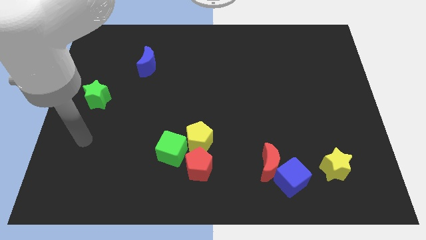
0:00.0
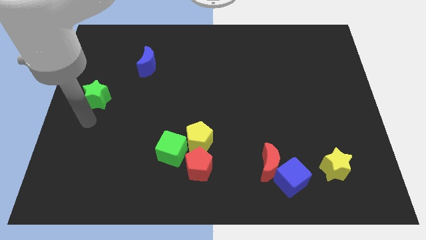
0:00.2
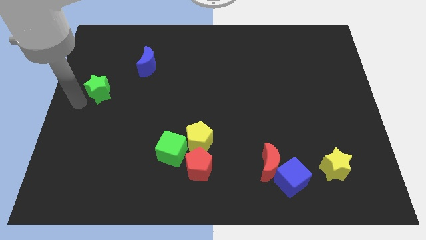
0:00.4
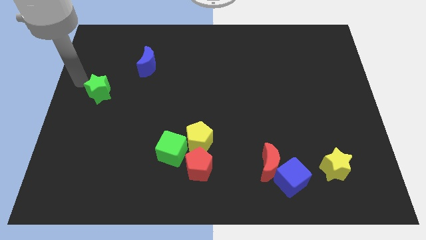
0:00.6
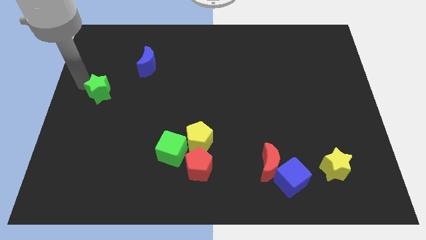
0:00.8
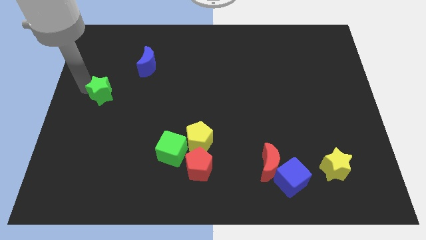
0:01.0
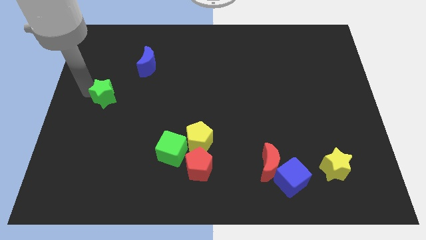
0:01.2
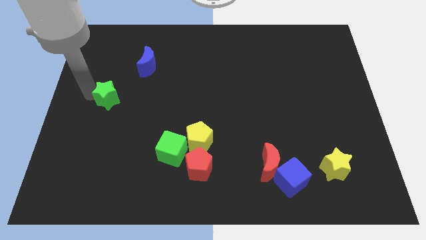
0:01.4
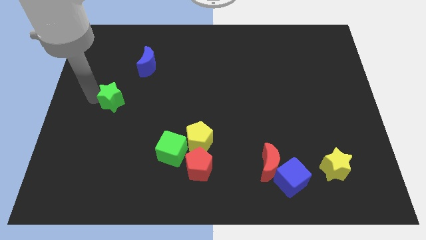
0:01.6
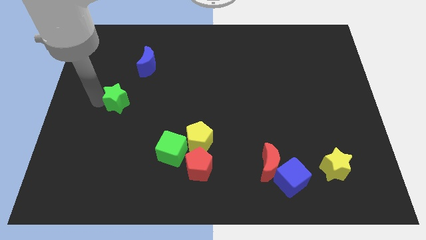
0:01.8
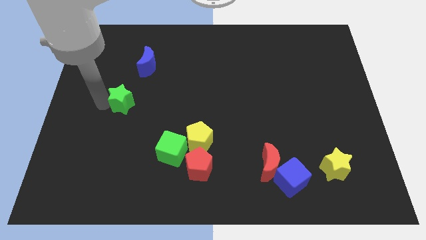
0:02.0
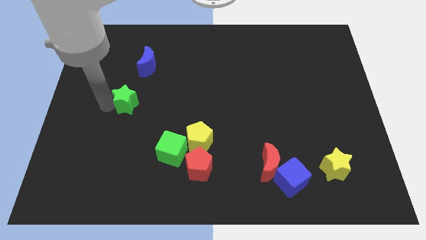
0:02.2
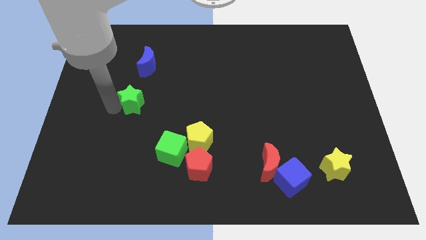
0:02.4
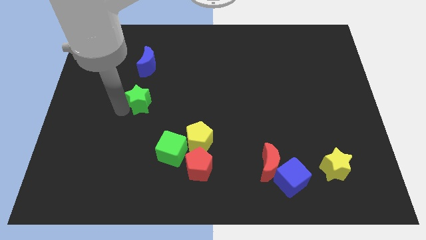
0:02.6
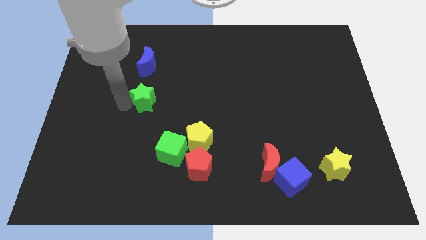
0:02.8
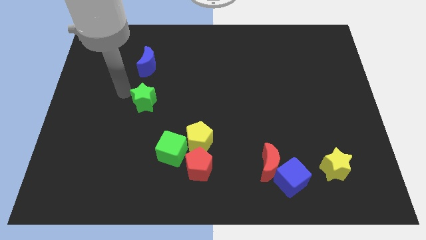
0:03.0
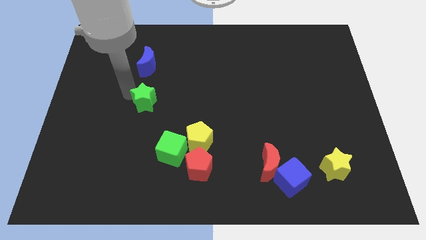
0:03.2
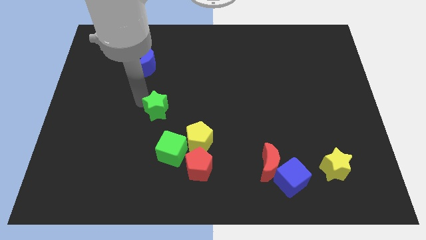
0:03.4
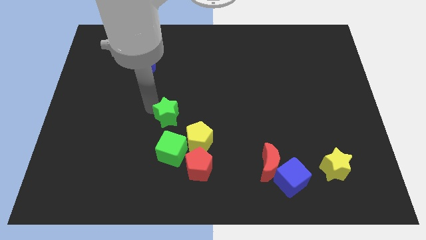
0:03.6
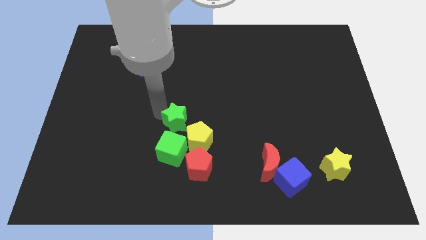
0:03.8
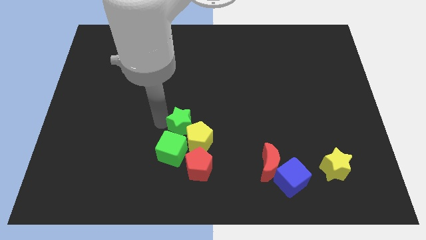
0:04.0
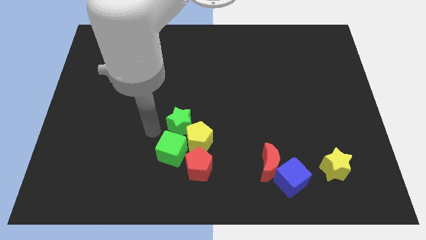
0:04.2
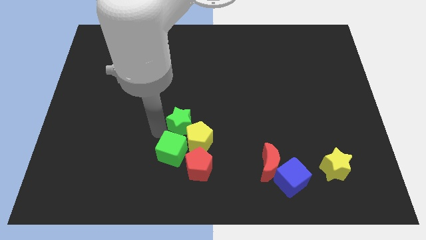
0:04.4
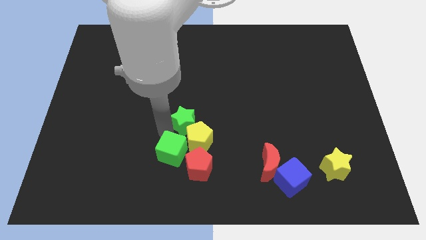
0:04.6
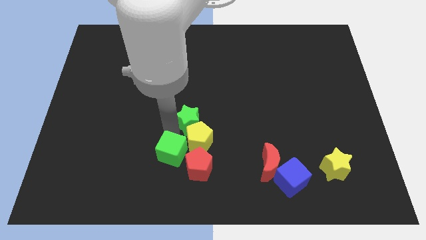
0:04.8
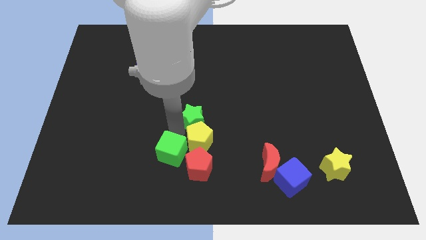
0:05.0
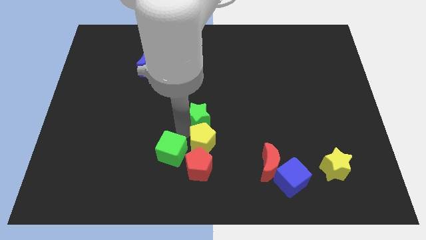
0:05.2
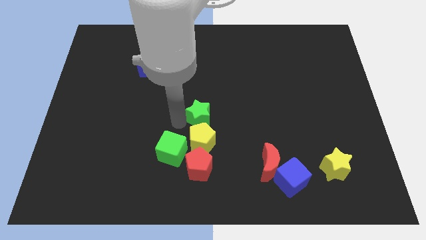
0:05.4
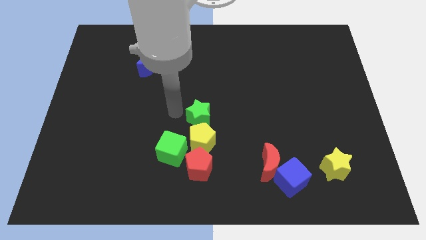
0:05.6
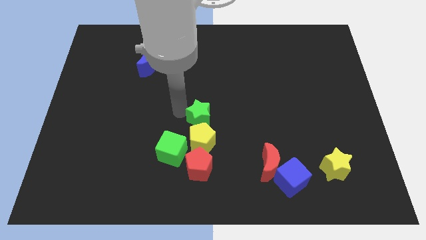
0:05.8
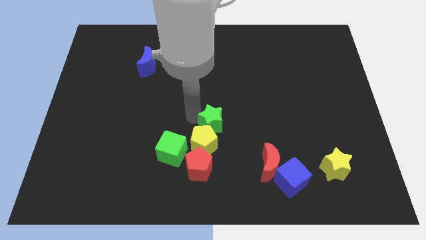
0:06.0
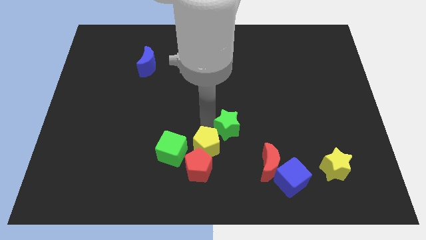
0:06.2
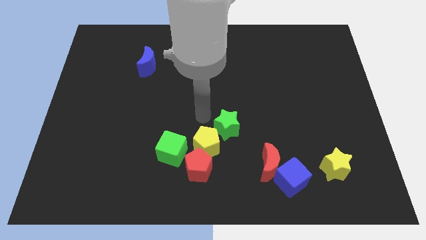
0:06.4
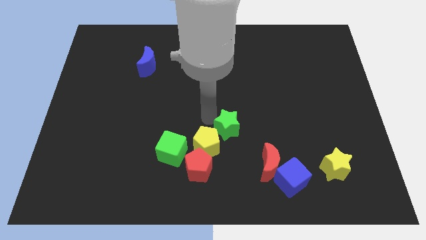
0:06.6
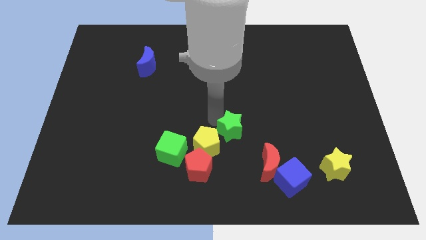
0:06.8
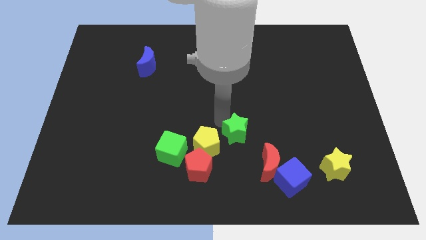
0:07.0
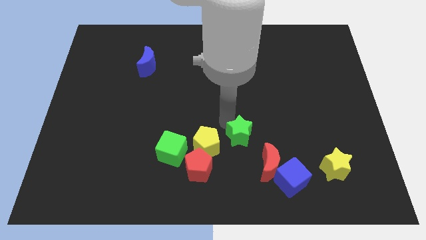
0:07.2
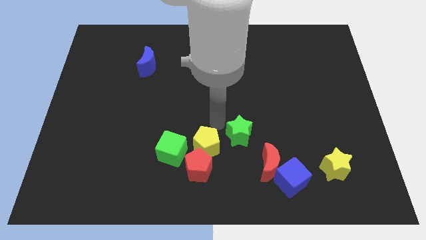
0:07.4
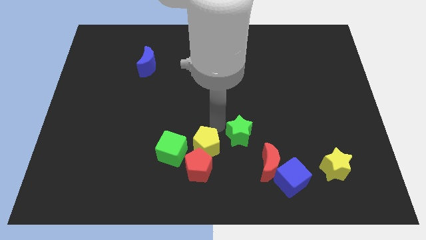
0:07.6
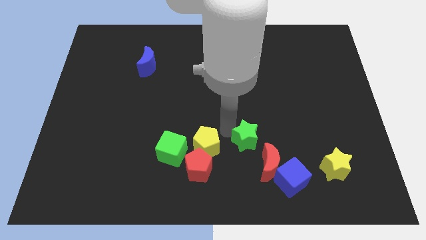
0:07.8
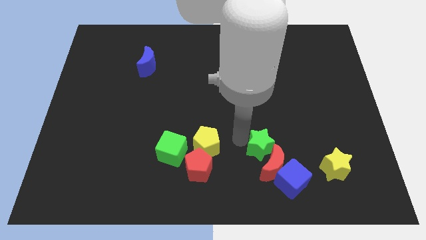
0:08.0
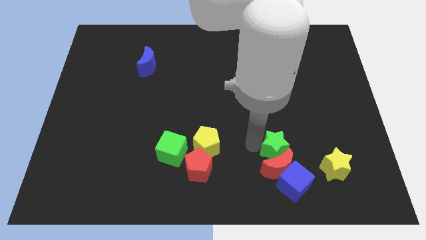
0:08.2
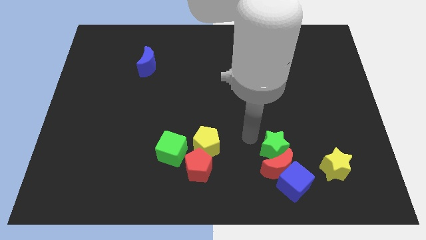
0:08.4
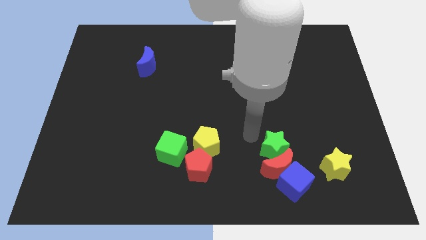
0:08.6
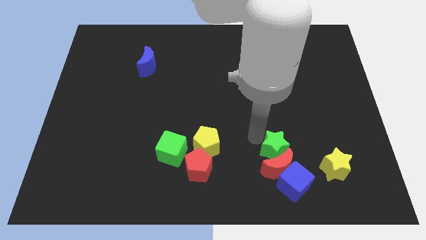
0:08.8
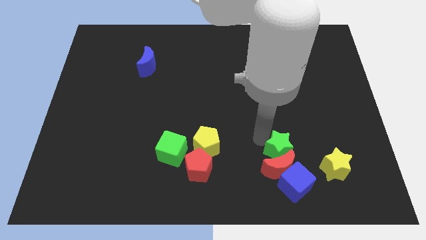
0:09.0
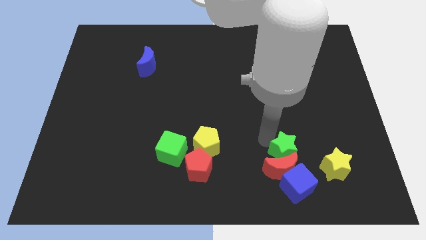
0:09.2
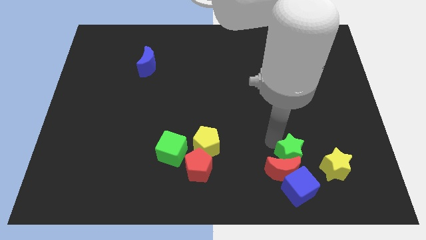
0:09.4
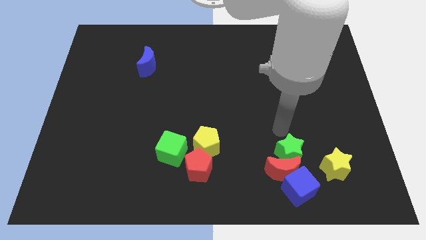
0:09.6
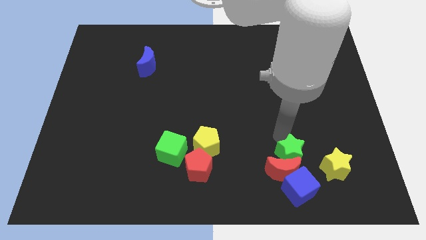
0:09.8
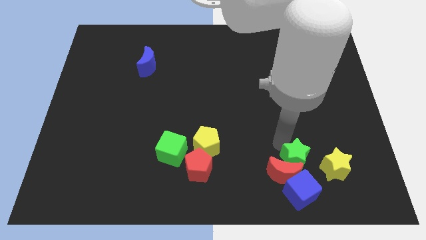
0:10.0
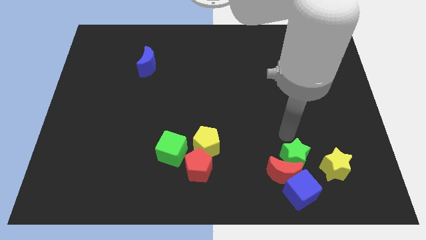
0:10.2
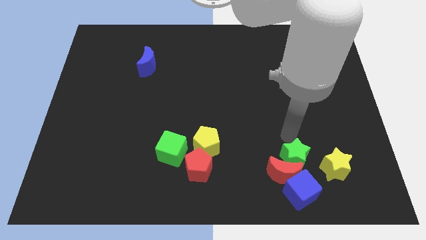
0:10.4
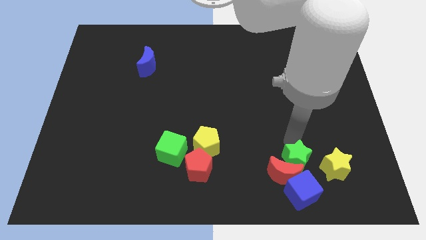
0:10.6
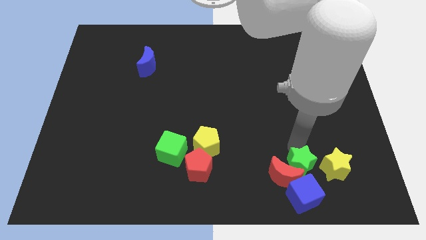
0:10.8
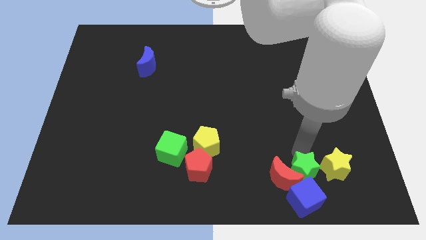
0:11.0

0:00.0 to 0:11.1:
slide the green star next to the blue cube

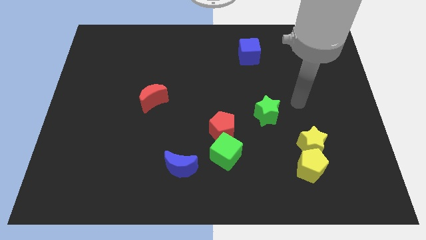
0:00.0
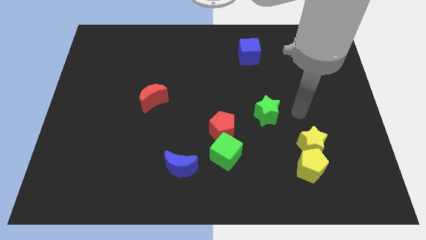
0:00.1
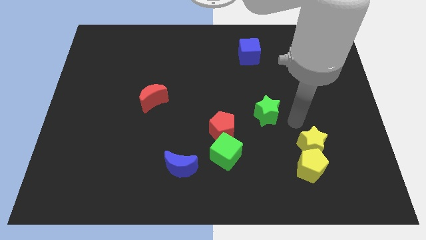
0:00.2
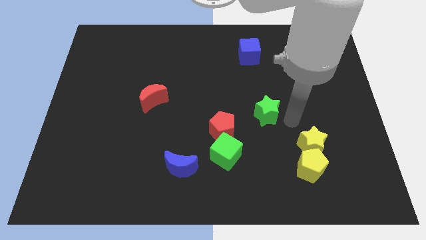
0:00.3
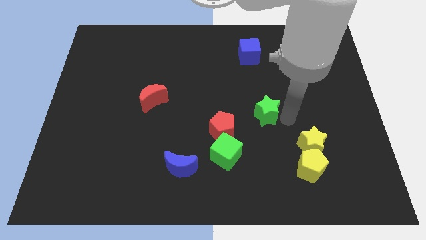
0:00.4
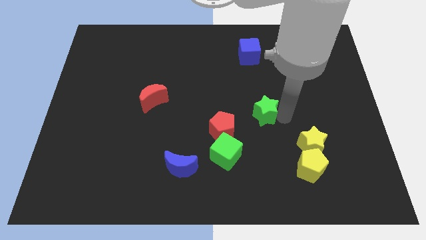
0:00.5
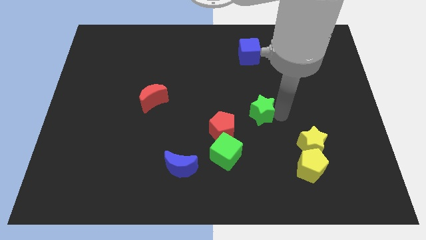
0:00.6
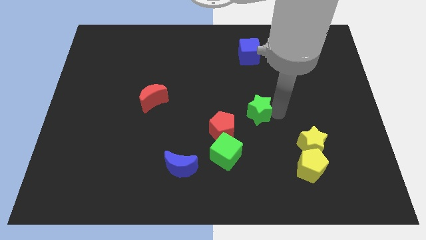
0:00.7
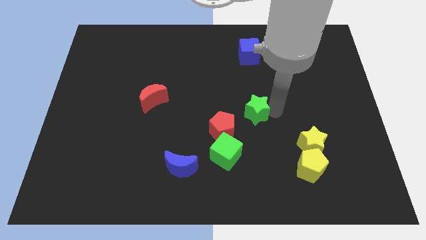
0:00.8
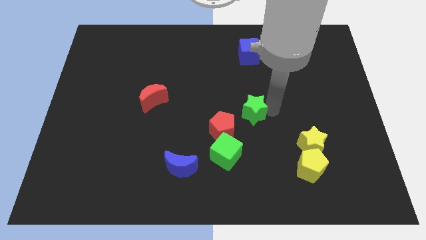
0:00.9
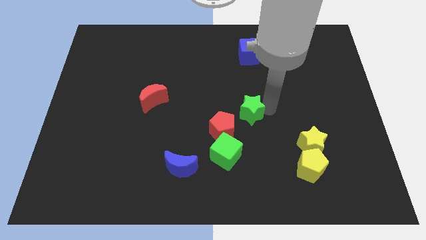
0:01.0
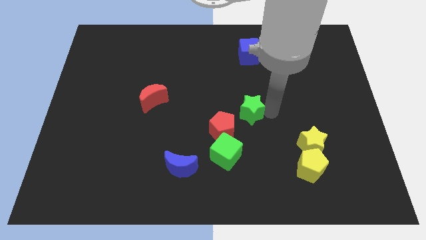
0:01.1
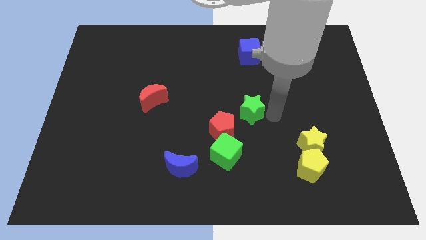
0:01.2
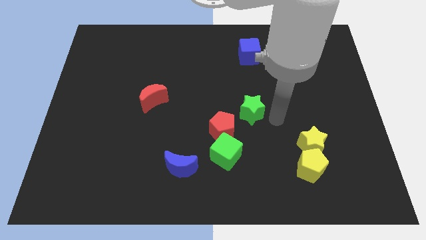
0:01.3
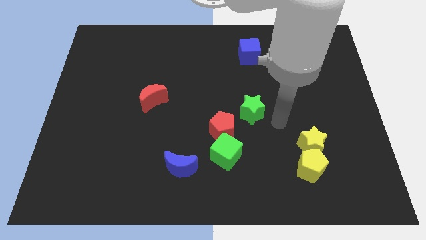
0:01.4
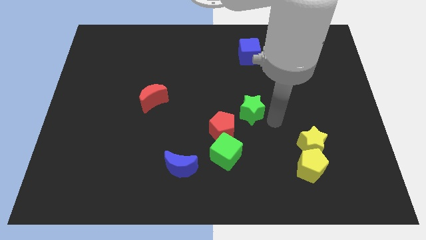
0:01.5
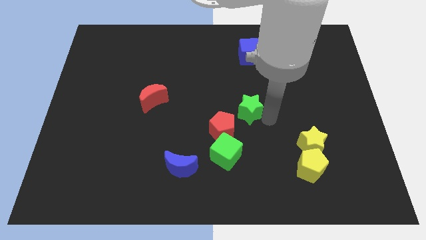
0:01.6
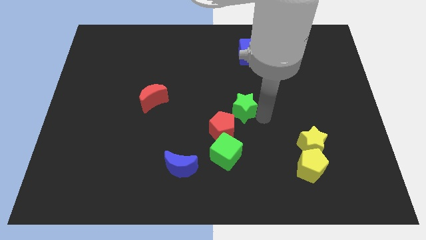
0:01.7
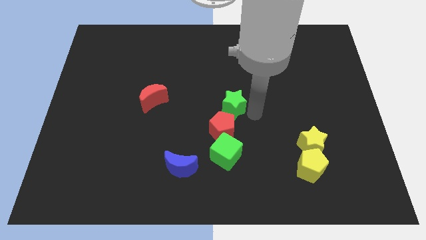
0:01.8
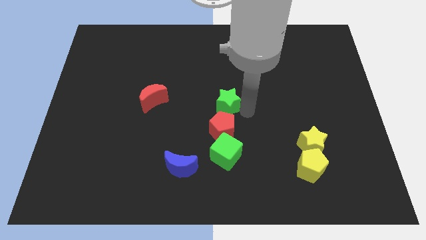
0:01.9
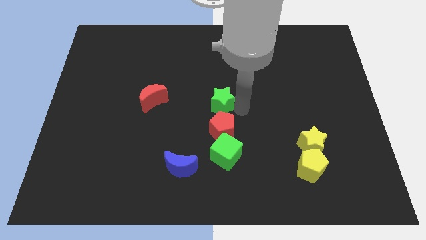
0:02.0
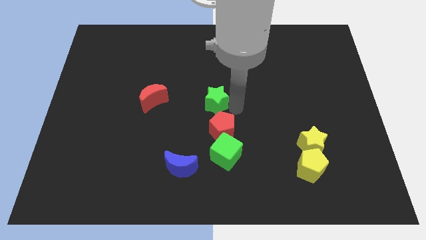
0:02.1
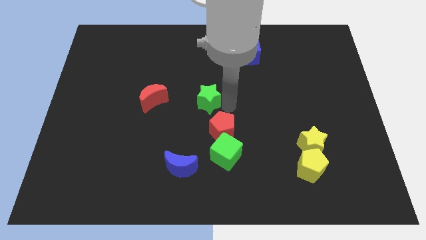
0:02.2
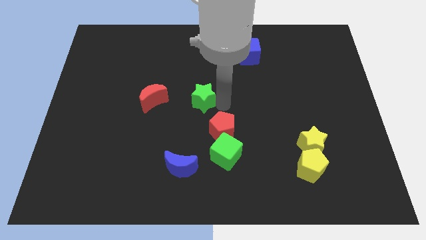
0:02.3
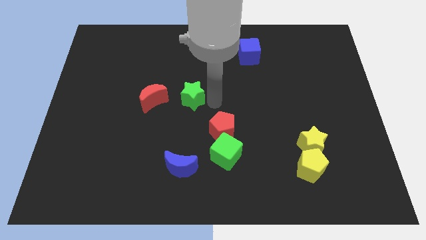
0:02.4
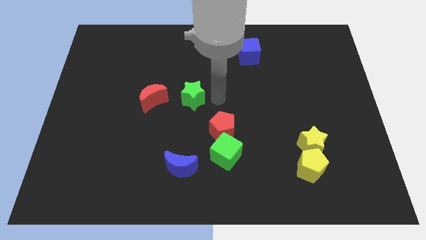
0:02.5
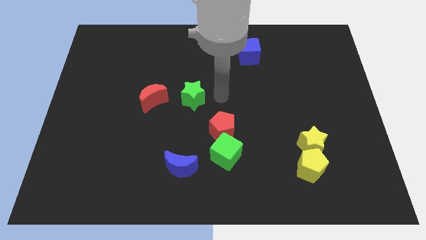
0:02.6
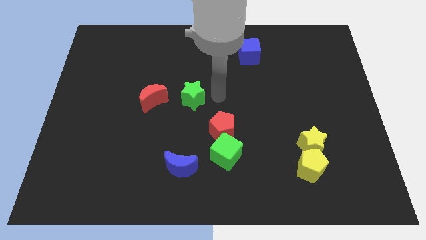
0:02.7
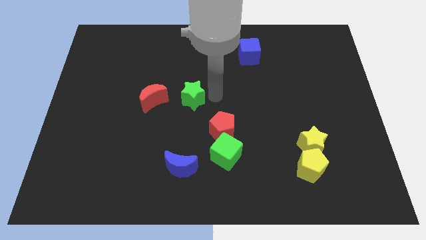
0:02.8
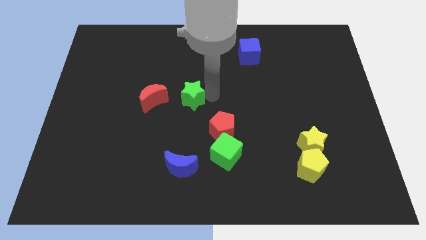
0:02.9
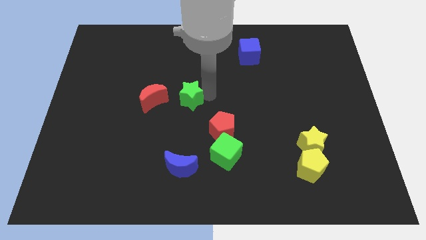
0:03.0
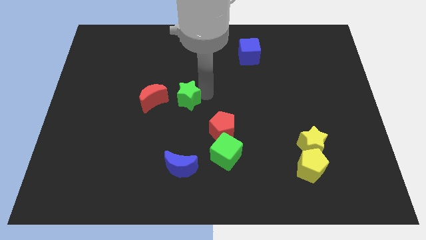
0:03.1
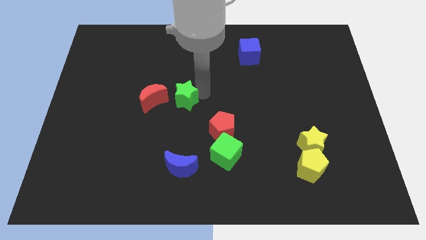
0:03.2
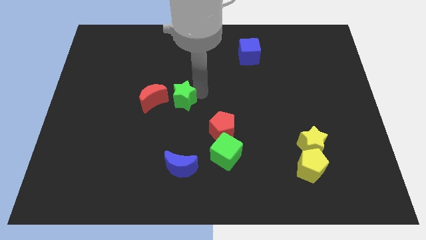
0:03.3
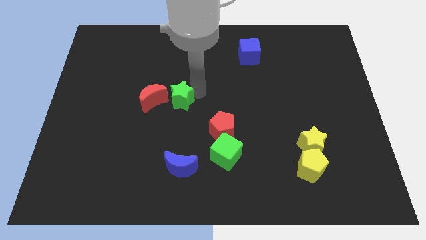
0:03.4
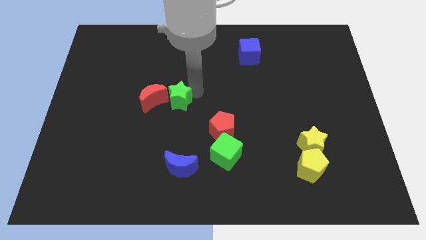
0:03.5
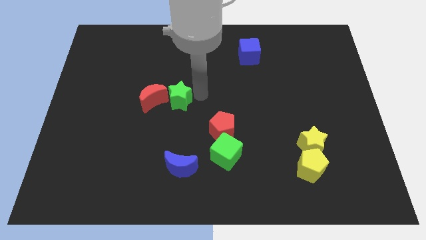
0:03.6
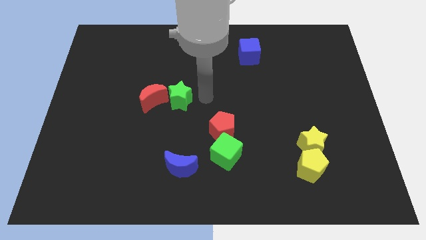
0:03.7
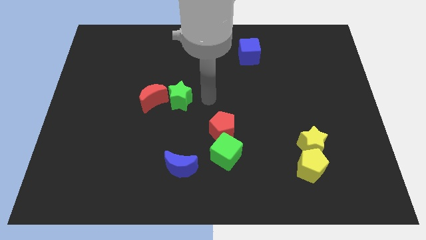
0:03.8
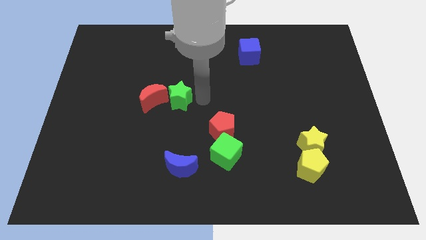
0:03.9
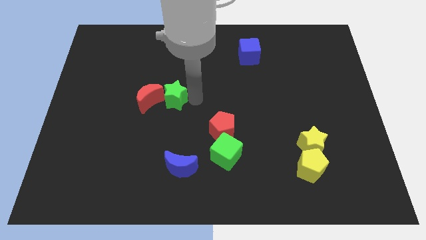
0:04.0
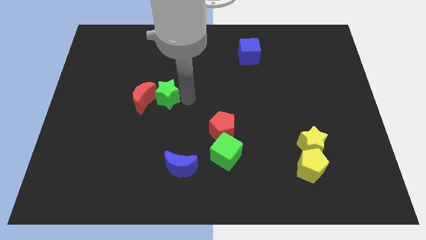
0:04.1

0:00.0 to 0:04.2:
put the green star towards the red moon
